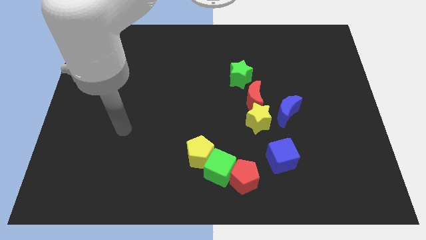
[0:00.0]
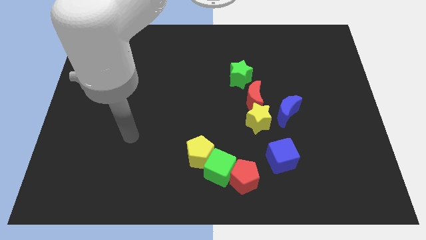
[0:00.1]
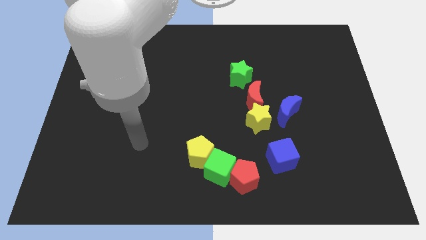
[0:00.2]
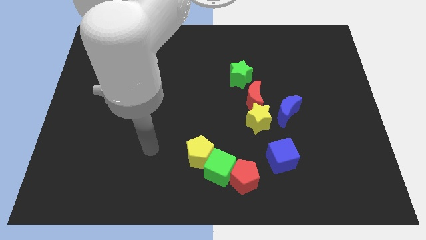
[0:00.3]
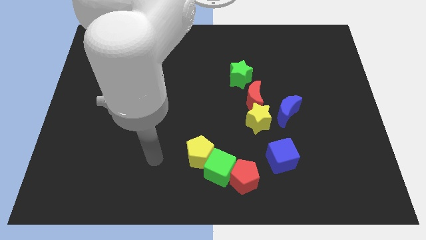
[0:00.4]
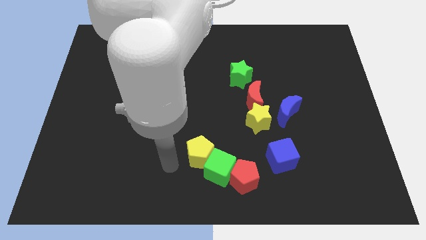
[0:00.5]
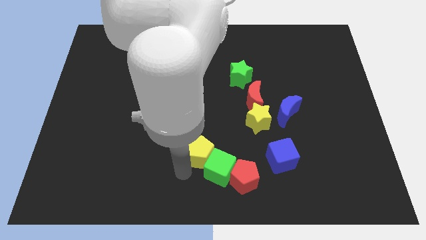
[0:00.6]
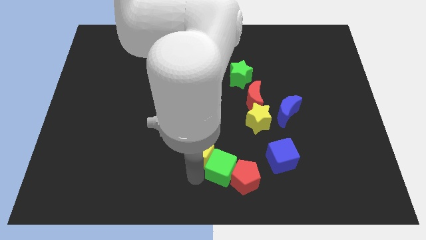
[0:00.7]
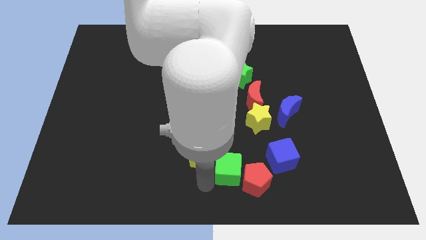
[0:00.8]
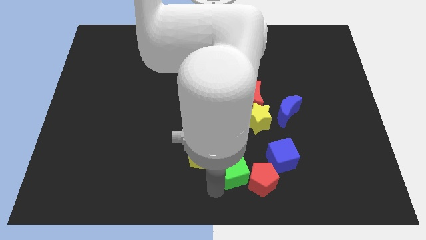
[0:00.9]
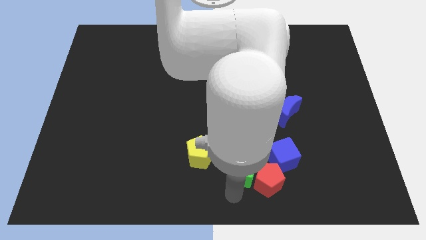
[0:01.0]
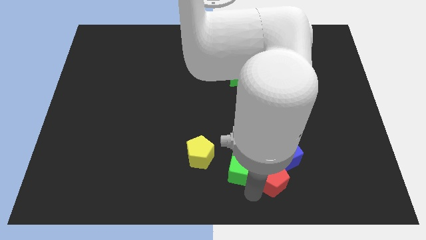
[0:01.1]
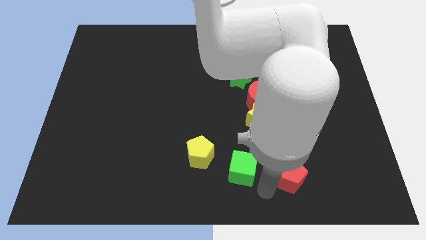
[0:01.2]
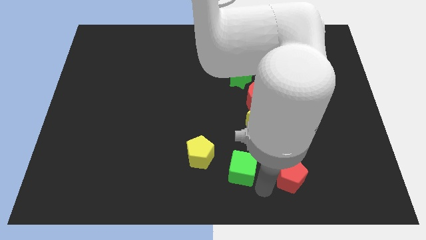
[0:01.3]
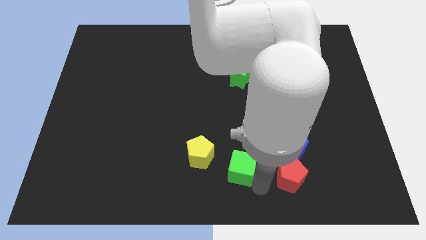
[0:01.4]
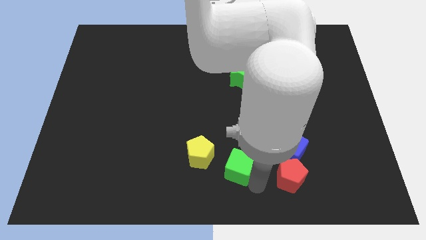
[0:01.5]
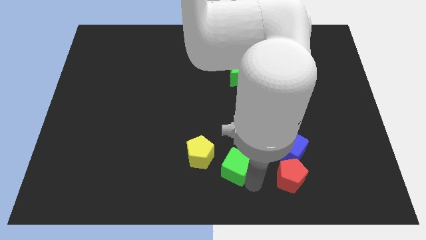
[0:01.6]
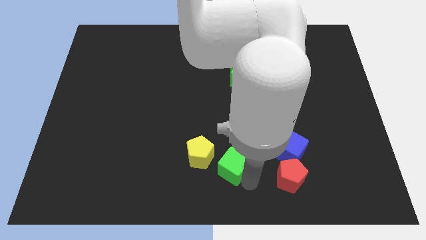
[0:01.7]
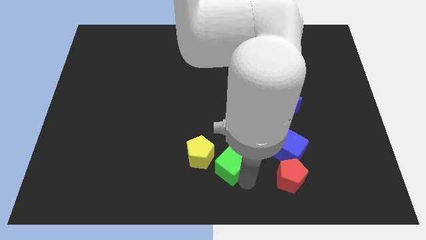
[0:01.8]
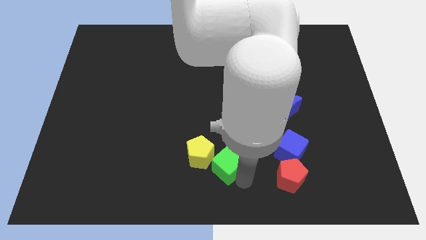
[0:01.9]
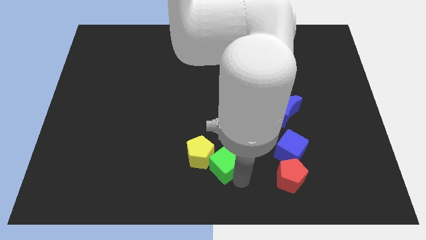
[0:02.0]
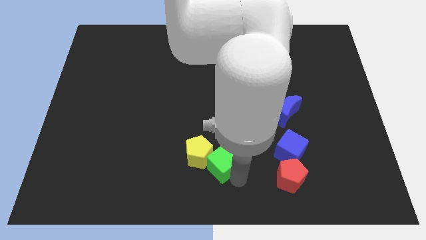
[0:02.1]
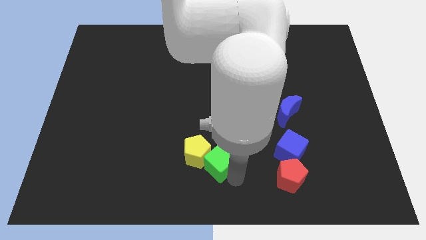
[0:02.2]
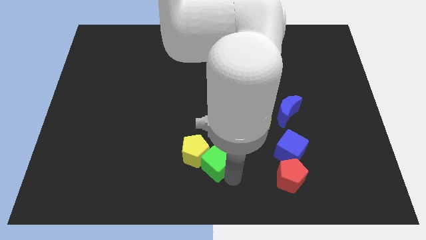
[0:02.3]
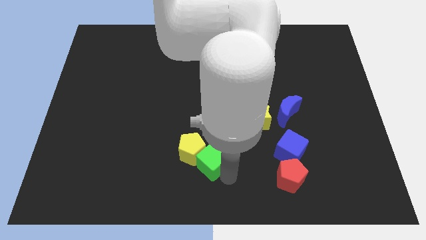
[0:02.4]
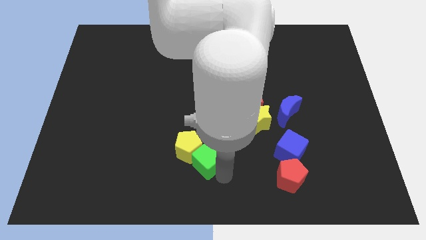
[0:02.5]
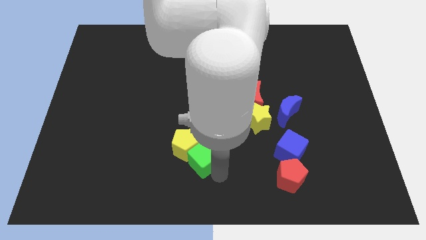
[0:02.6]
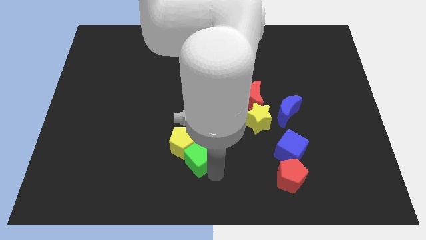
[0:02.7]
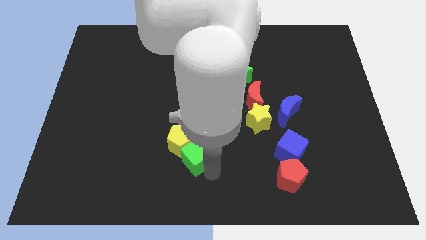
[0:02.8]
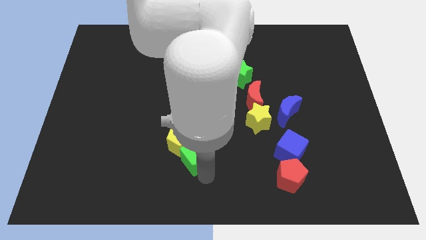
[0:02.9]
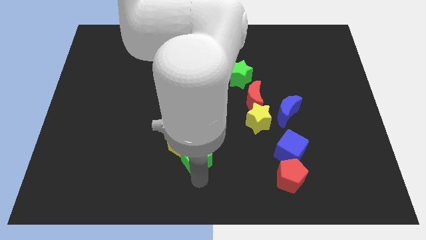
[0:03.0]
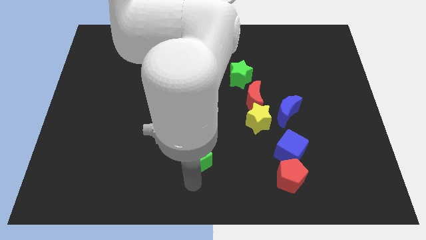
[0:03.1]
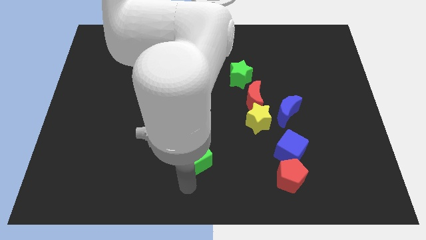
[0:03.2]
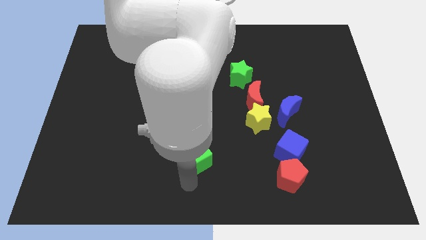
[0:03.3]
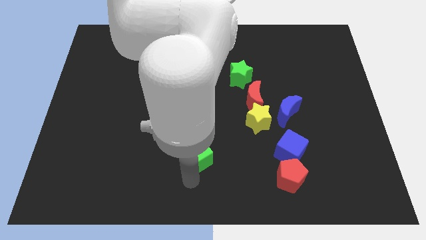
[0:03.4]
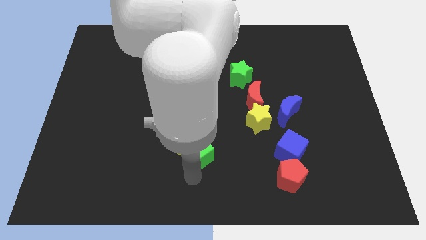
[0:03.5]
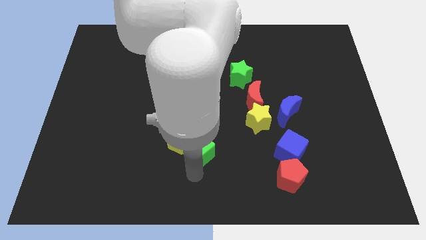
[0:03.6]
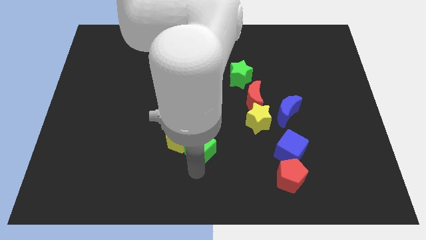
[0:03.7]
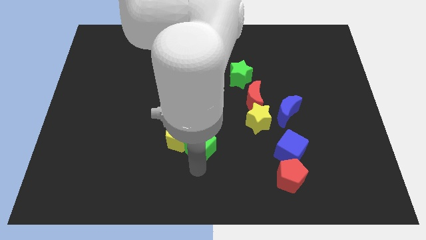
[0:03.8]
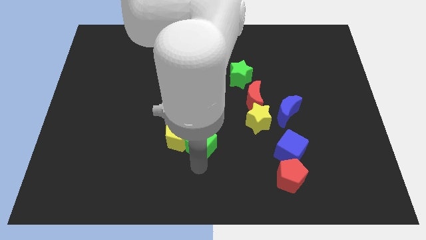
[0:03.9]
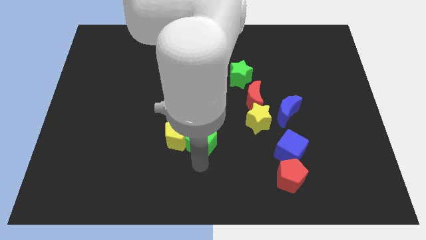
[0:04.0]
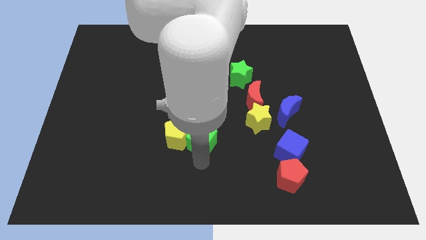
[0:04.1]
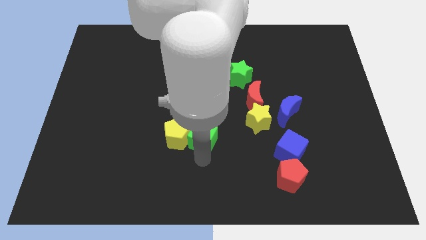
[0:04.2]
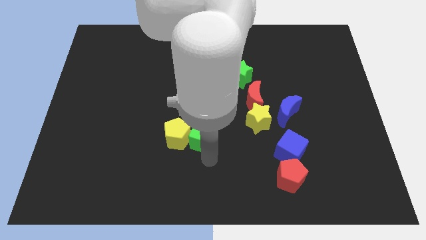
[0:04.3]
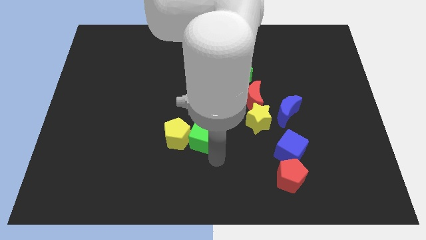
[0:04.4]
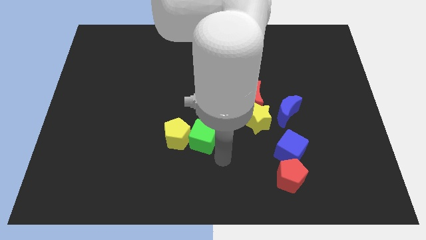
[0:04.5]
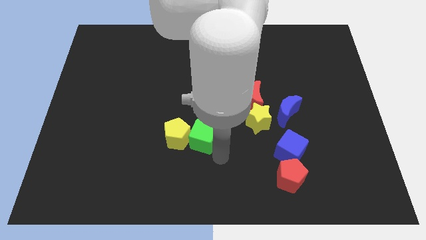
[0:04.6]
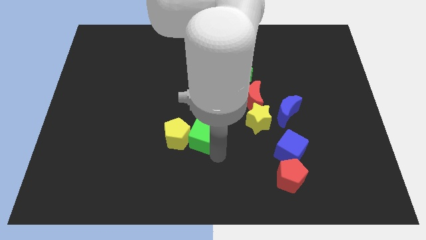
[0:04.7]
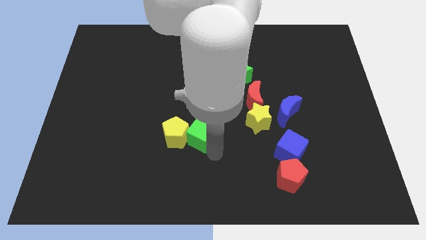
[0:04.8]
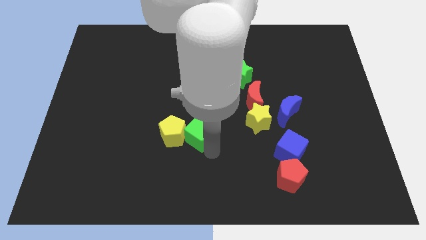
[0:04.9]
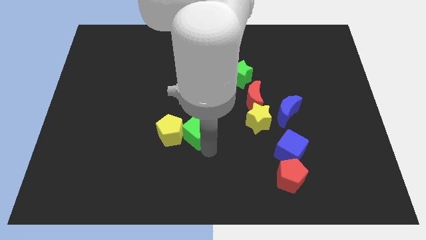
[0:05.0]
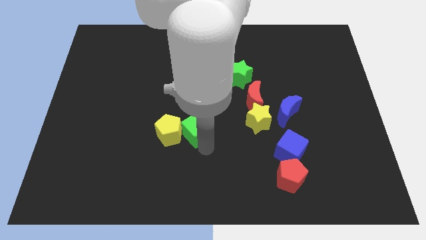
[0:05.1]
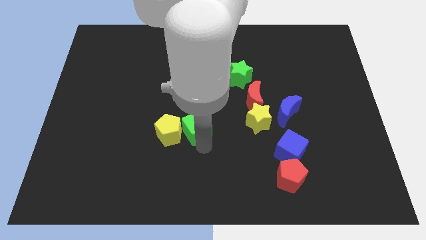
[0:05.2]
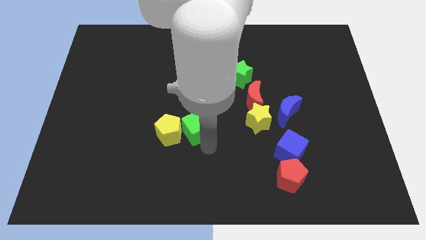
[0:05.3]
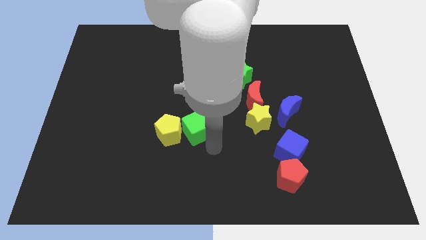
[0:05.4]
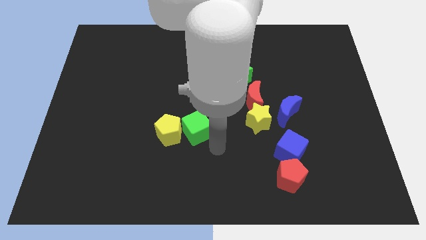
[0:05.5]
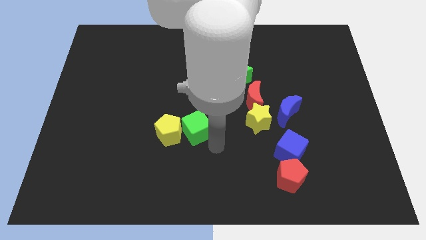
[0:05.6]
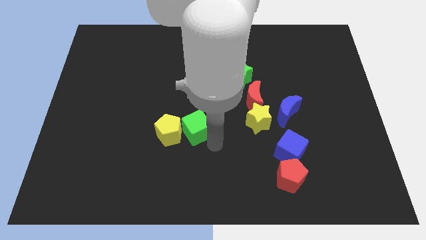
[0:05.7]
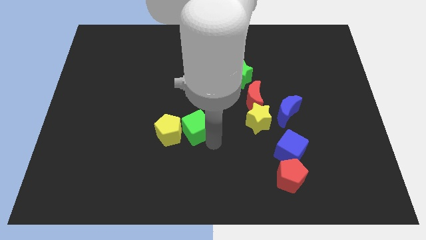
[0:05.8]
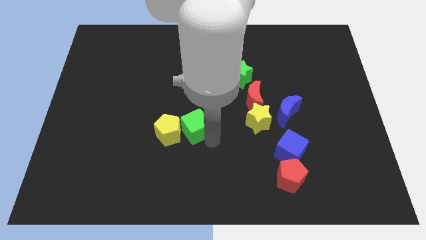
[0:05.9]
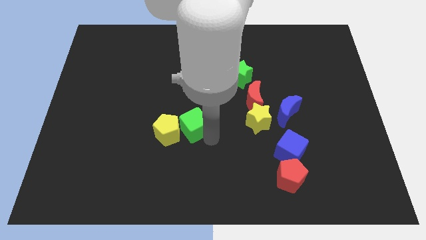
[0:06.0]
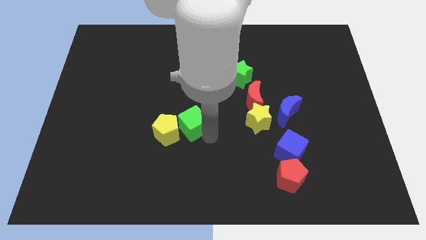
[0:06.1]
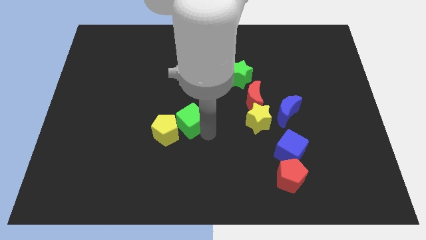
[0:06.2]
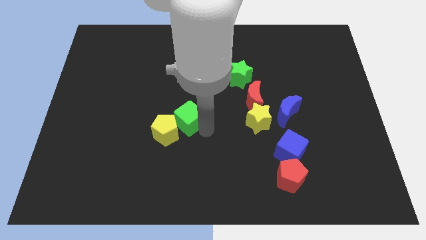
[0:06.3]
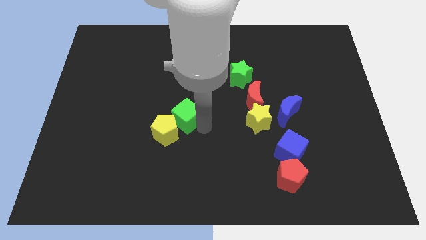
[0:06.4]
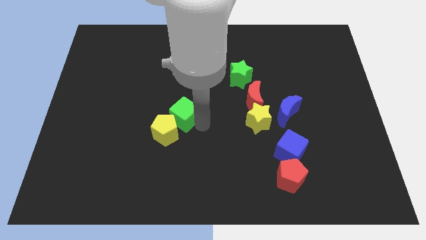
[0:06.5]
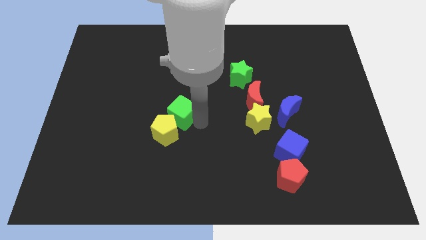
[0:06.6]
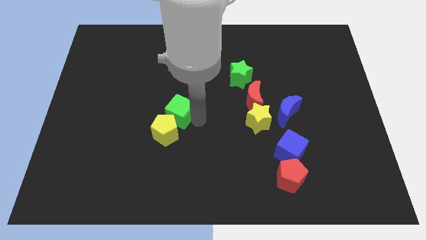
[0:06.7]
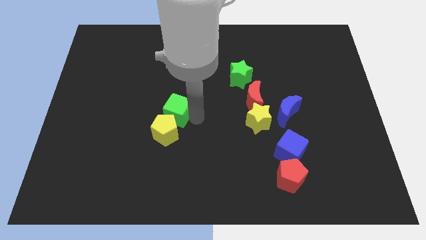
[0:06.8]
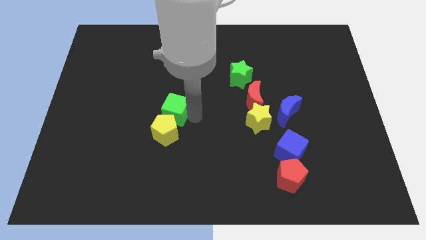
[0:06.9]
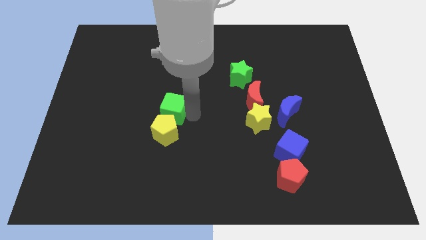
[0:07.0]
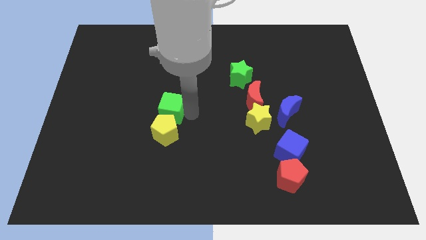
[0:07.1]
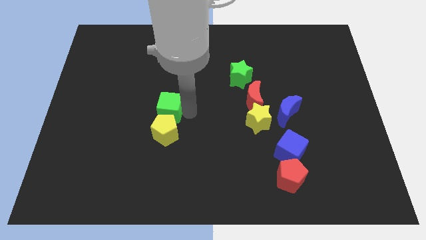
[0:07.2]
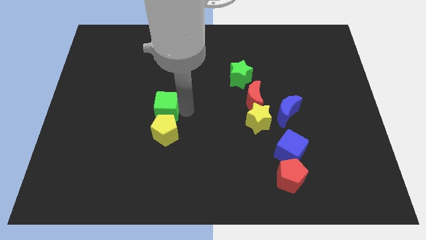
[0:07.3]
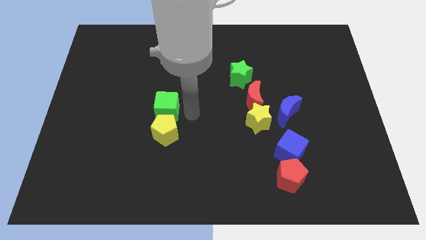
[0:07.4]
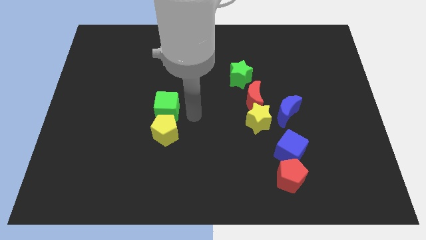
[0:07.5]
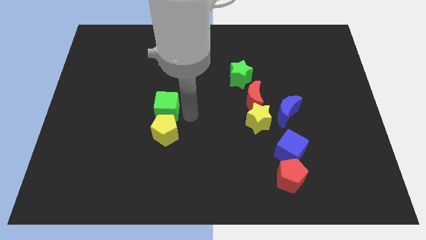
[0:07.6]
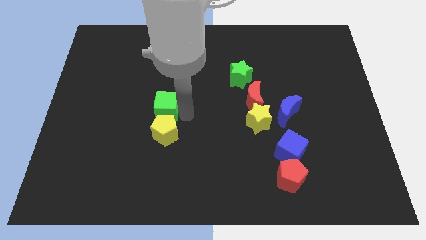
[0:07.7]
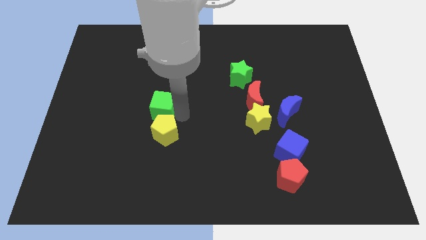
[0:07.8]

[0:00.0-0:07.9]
push the green cube diagonally up and left
